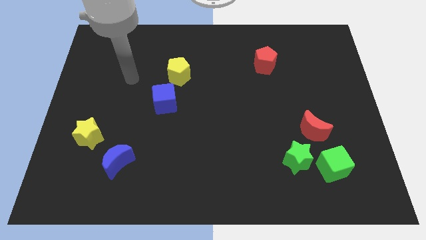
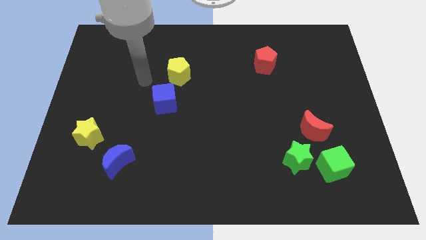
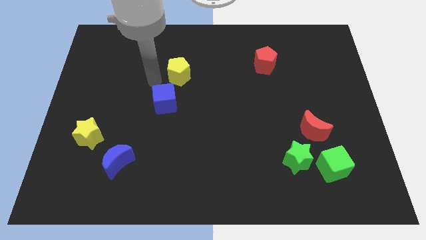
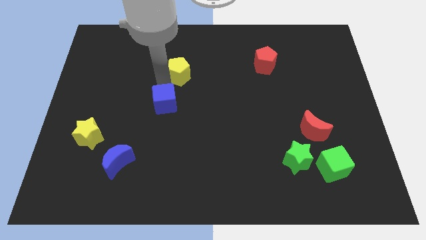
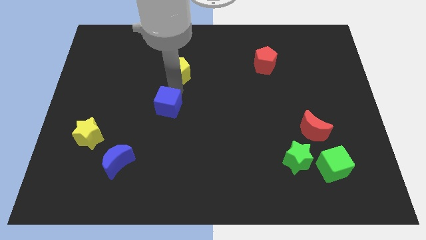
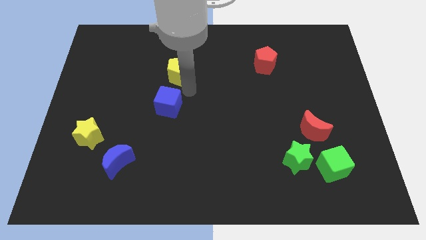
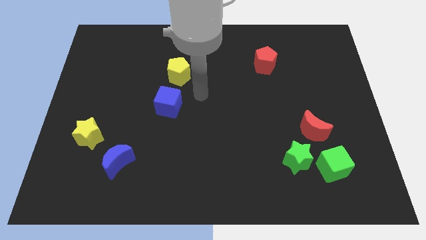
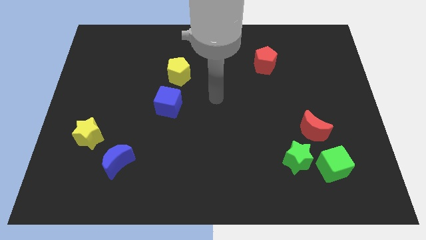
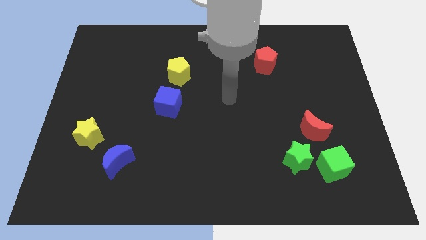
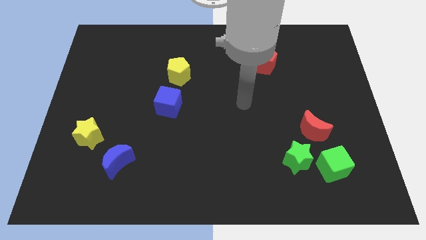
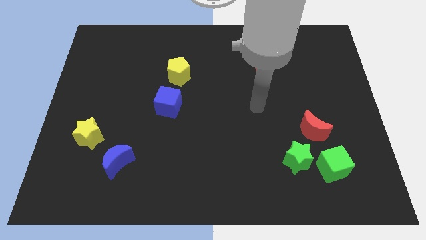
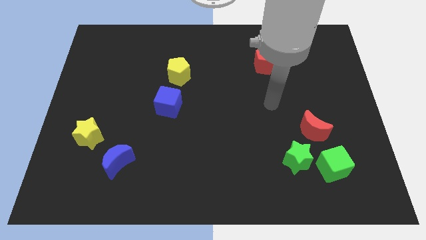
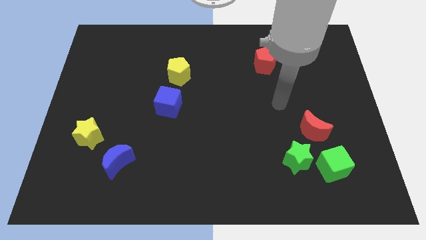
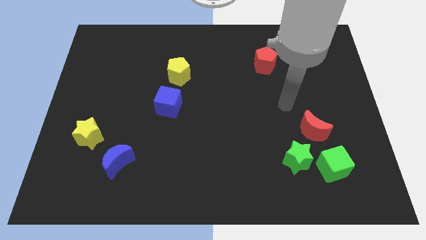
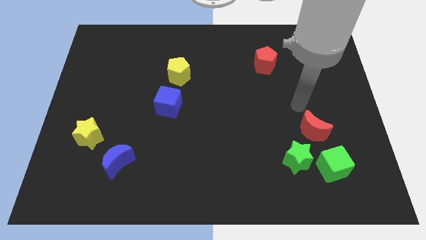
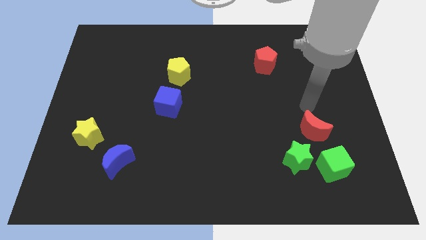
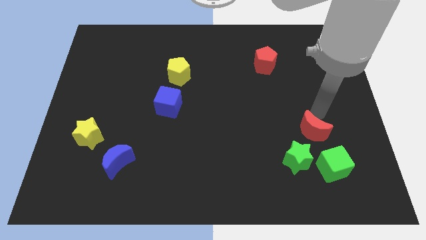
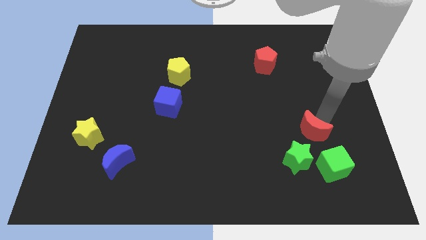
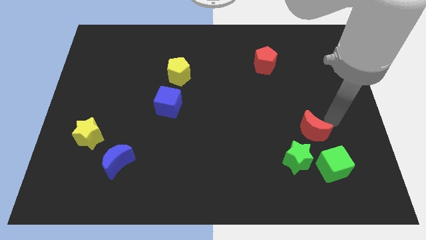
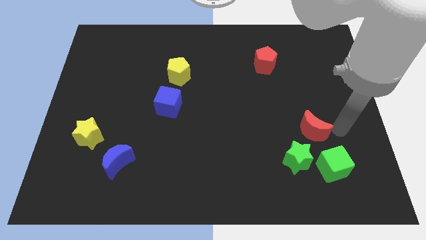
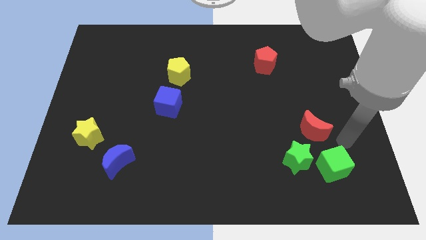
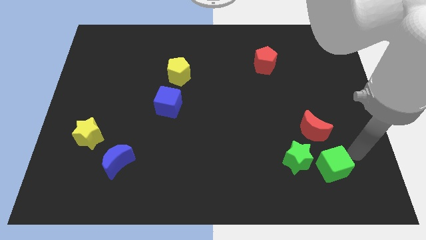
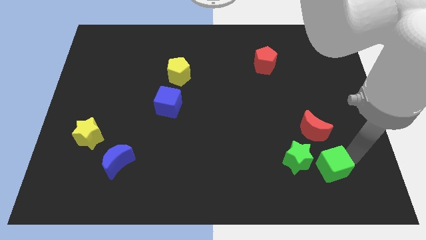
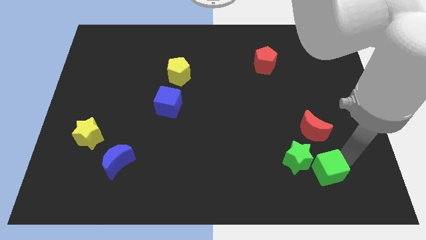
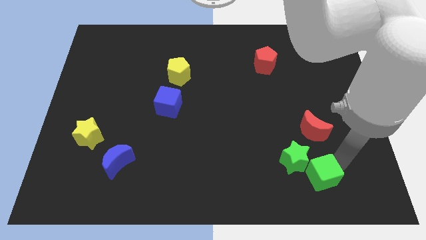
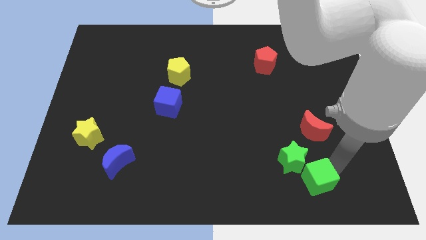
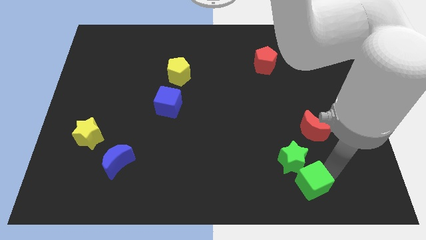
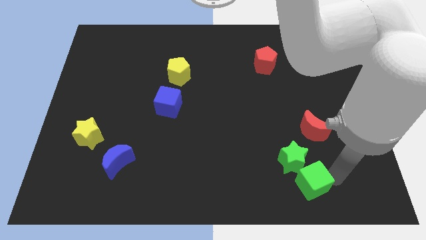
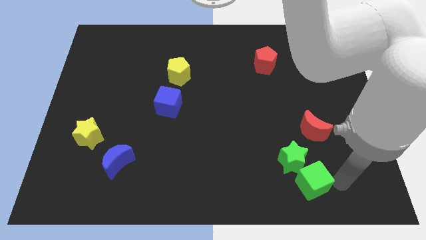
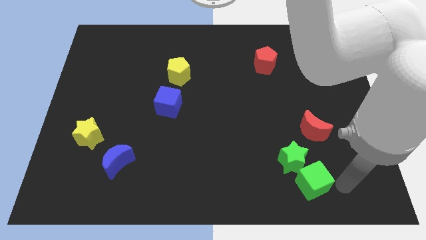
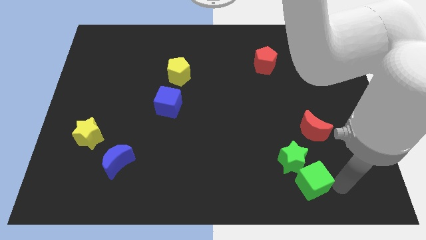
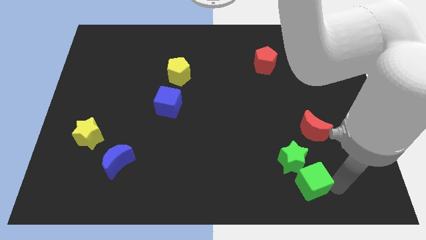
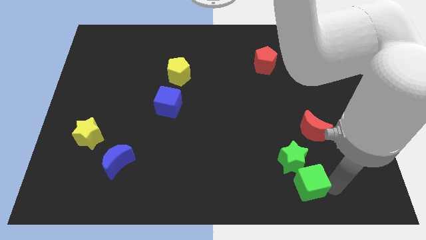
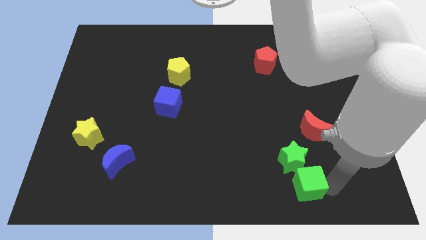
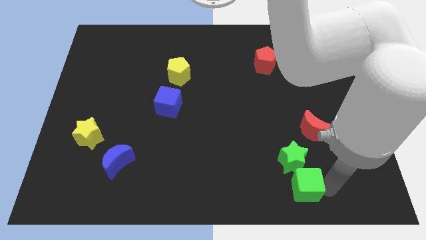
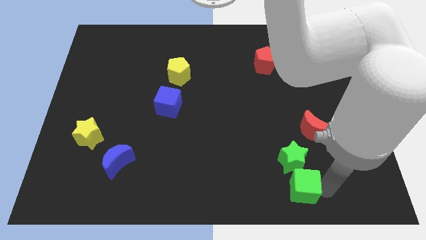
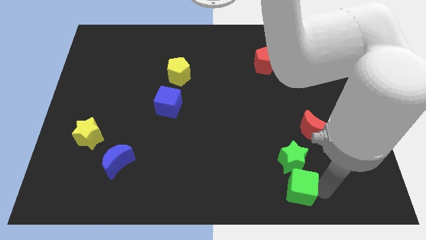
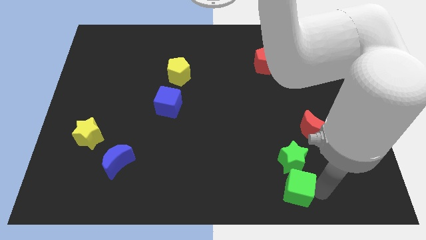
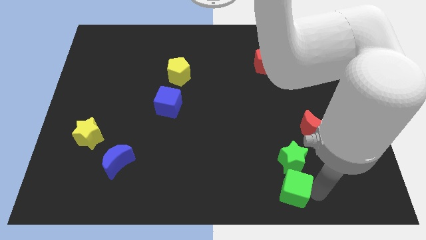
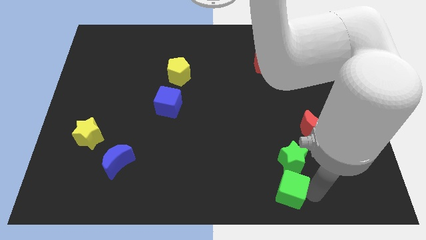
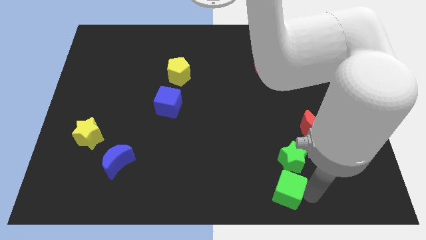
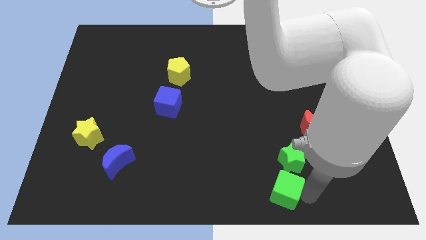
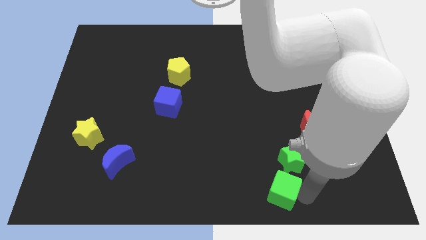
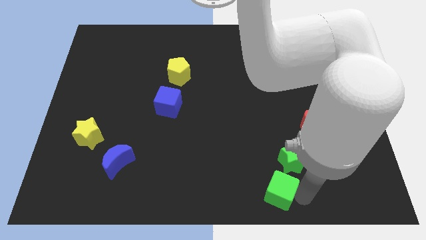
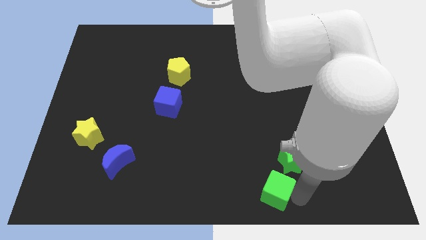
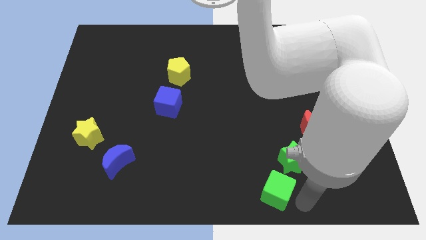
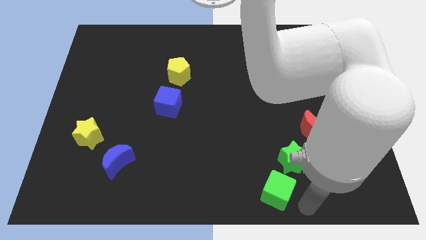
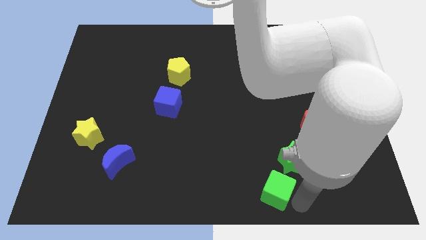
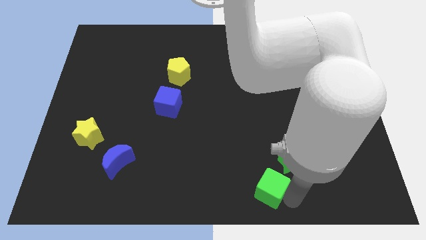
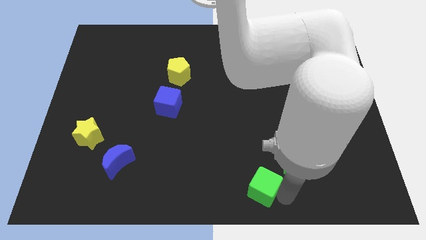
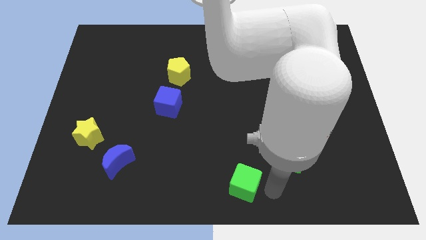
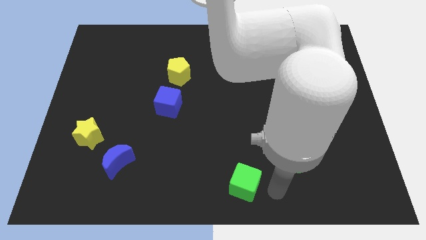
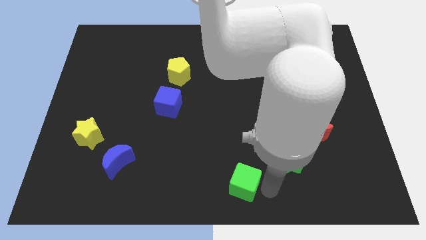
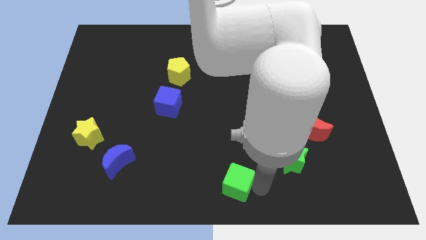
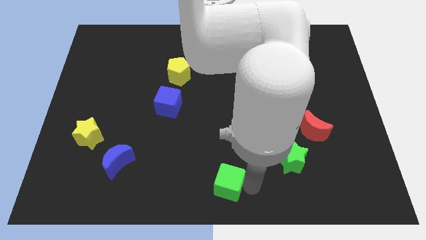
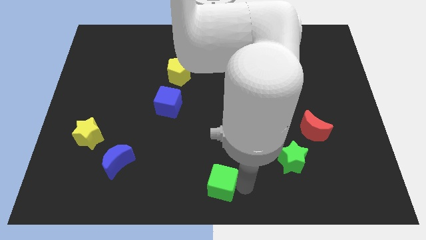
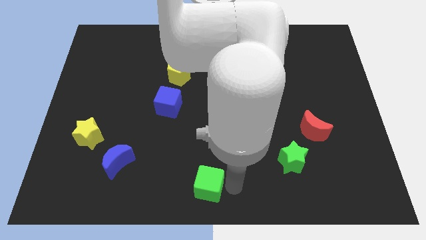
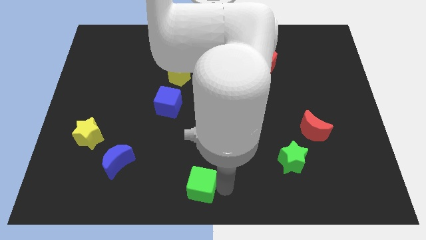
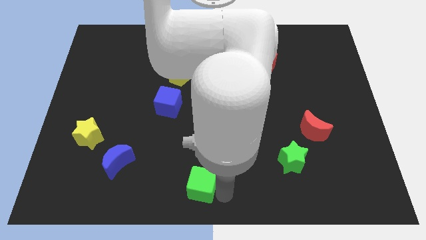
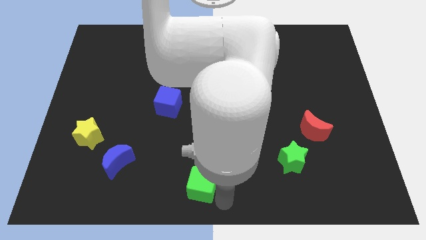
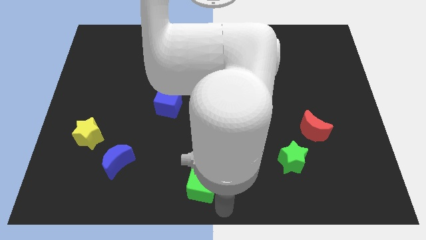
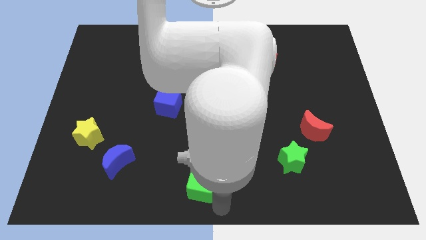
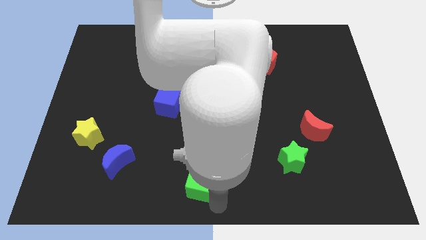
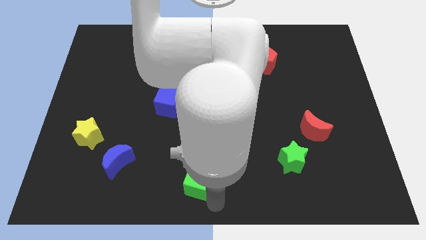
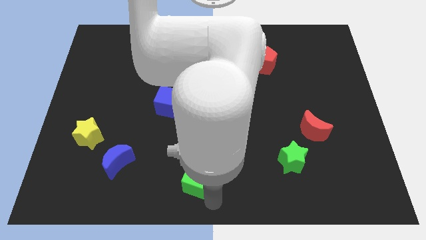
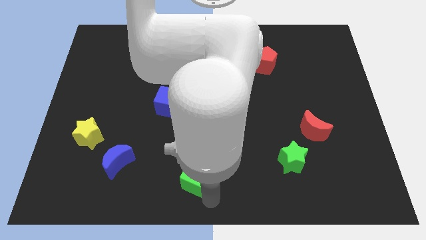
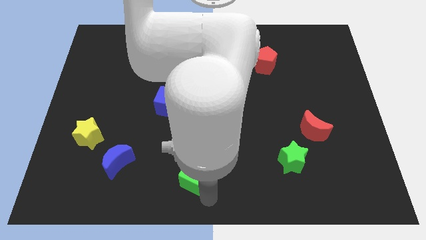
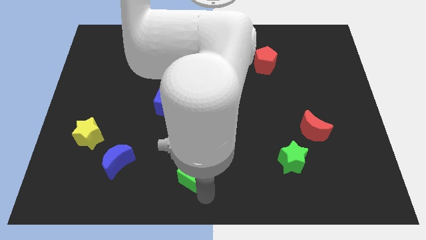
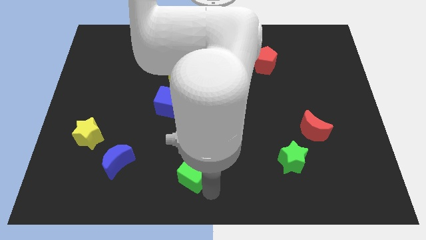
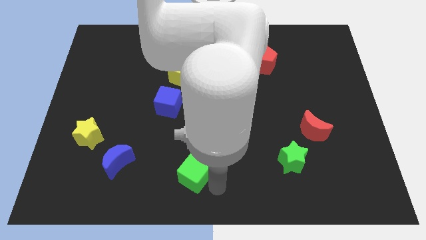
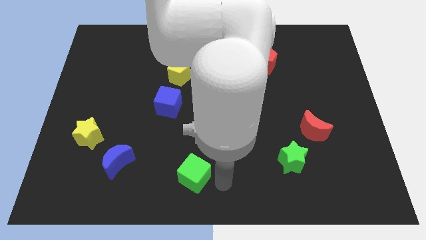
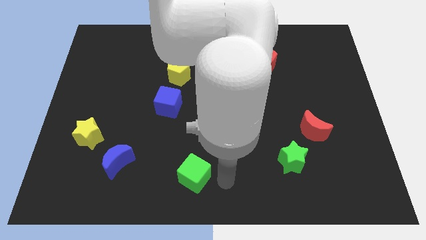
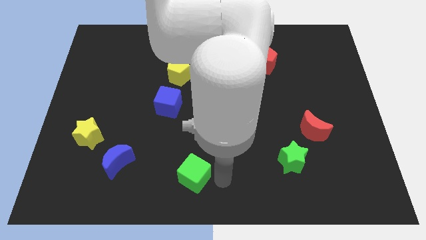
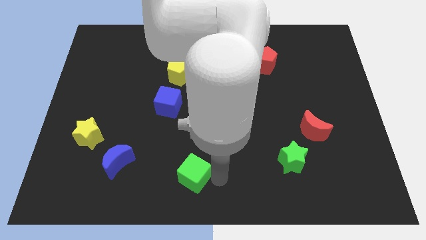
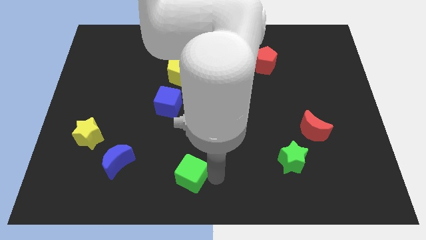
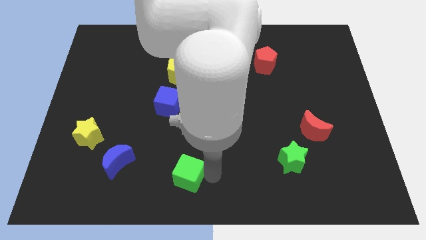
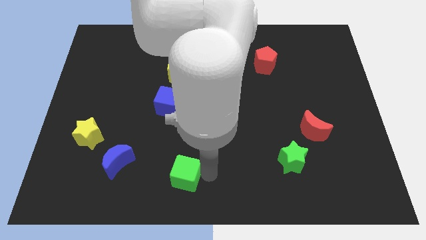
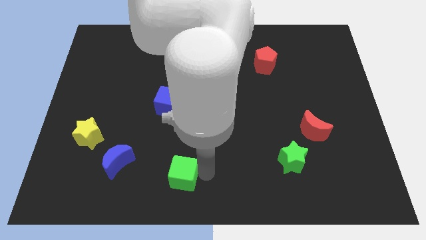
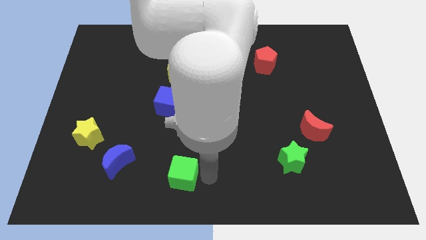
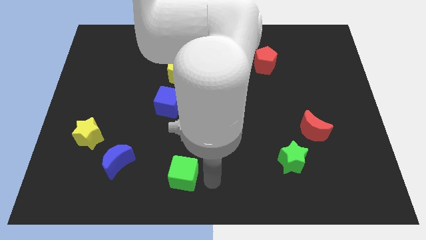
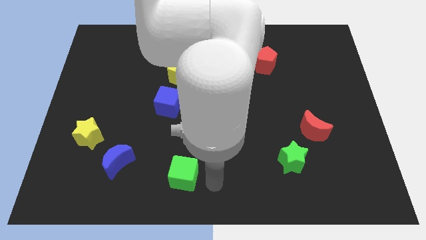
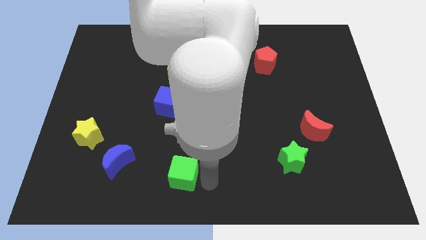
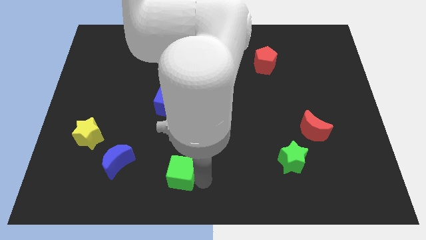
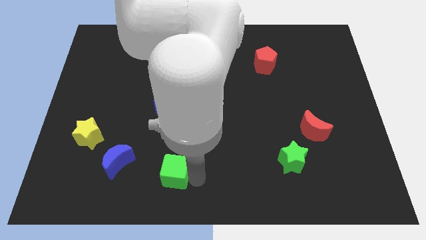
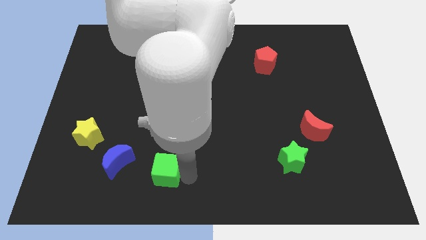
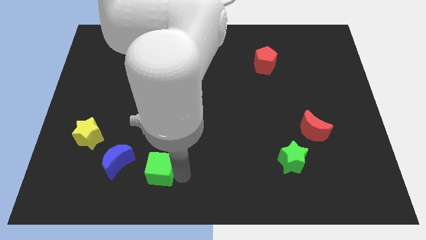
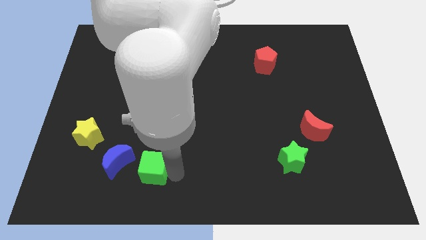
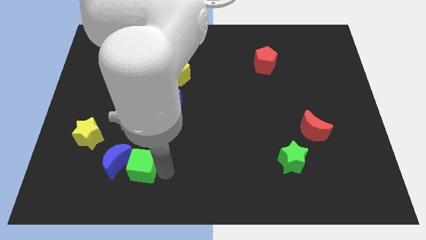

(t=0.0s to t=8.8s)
slide the green cube towards the blue moon
